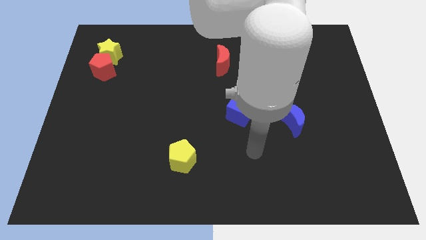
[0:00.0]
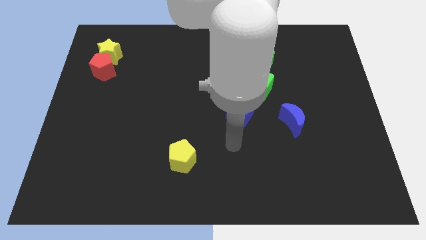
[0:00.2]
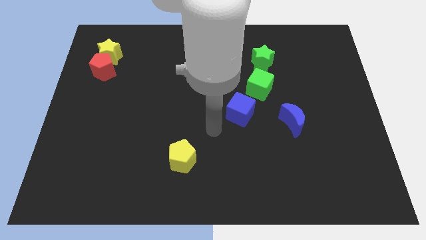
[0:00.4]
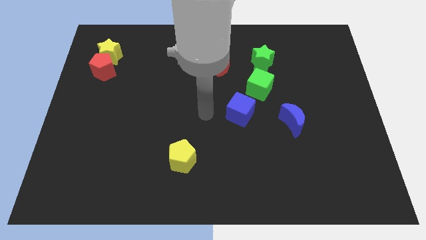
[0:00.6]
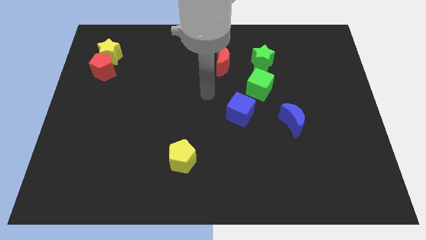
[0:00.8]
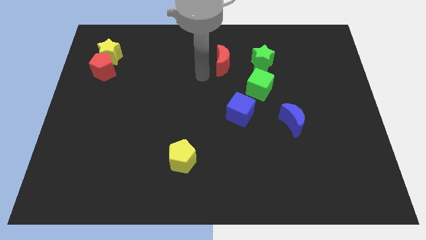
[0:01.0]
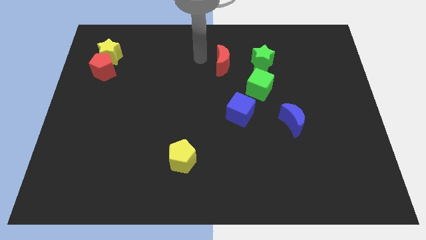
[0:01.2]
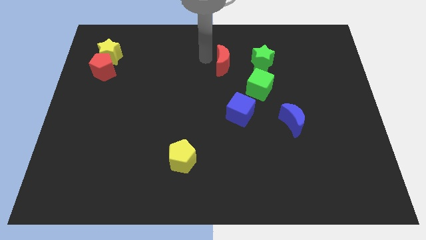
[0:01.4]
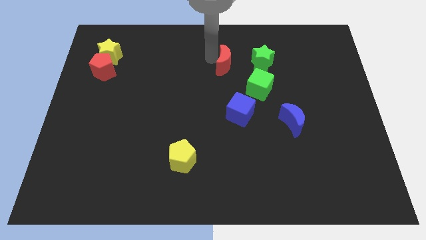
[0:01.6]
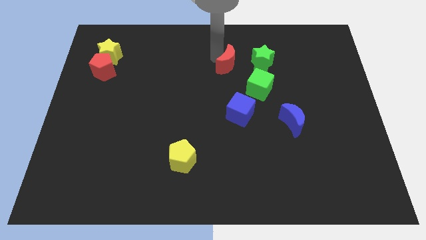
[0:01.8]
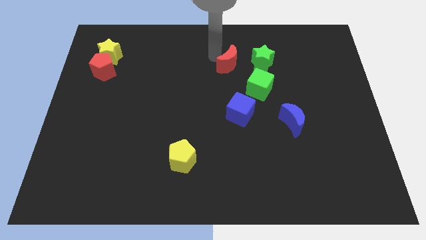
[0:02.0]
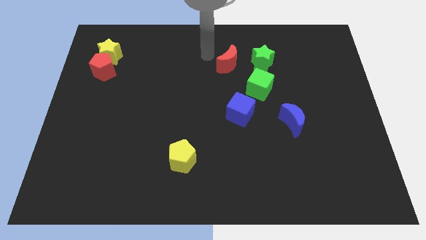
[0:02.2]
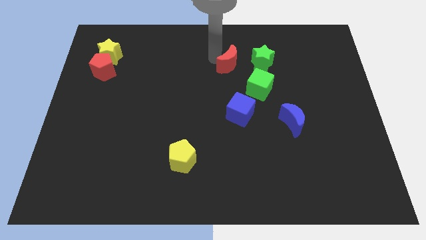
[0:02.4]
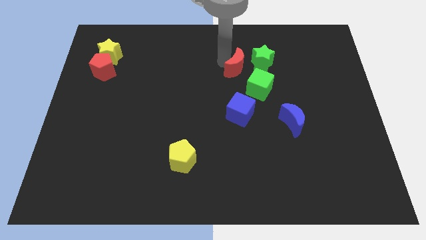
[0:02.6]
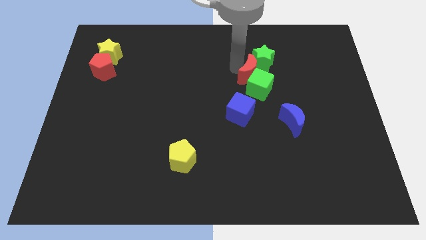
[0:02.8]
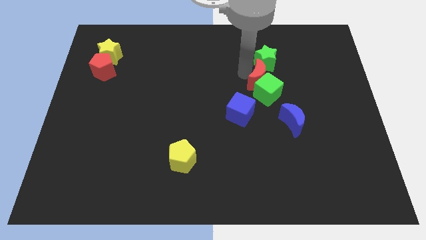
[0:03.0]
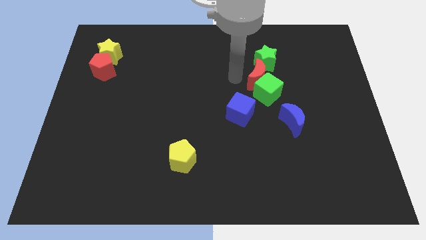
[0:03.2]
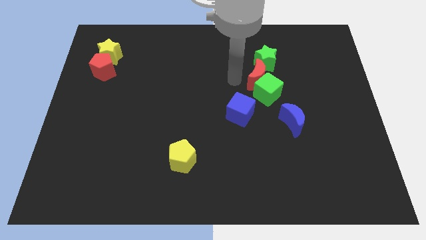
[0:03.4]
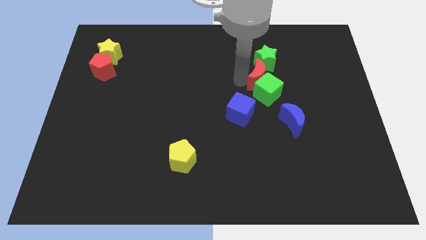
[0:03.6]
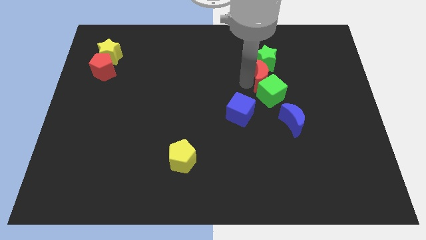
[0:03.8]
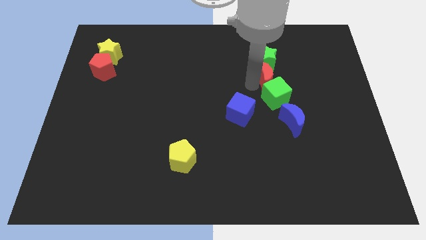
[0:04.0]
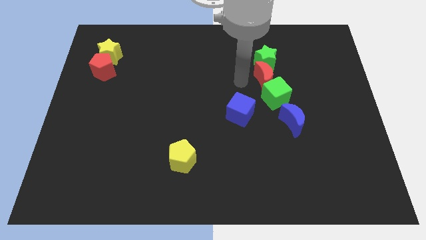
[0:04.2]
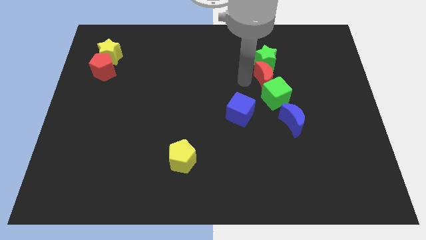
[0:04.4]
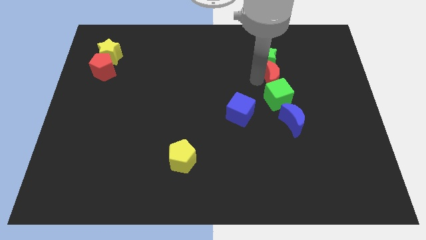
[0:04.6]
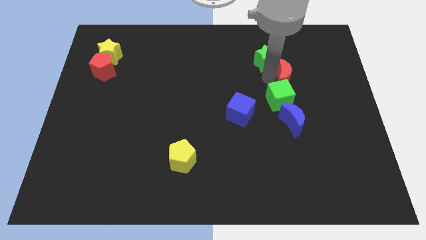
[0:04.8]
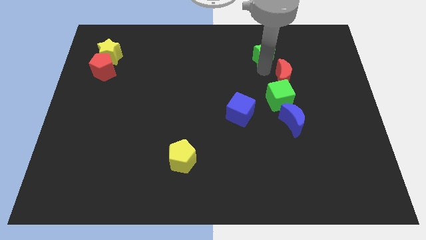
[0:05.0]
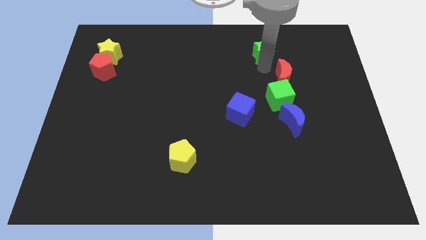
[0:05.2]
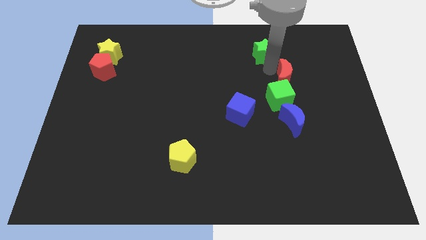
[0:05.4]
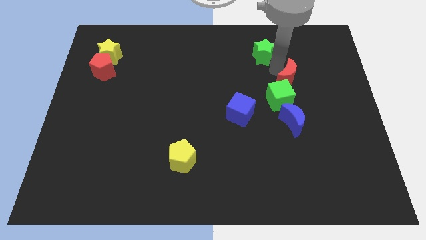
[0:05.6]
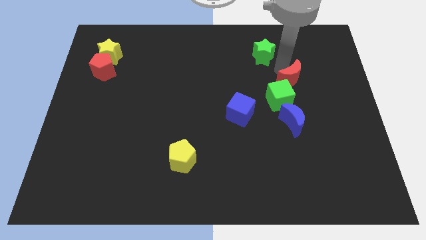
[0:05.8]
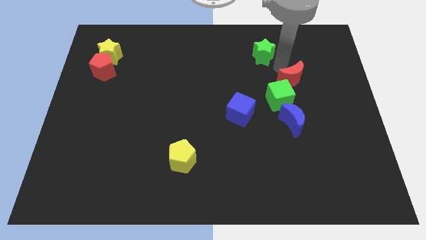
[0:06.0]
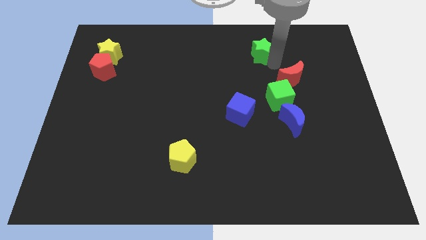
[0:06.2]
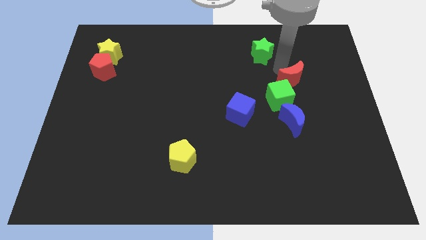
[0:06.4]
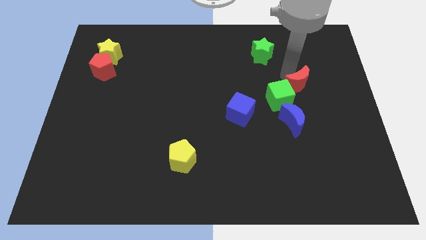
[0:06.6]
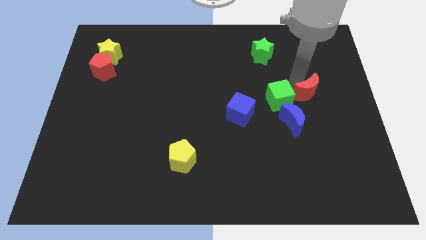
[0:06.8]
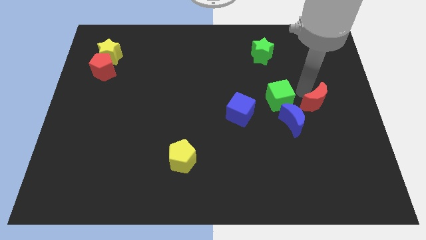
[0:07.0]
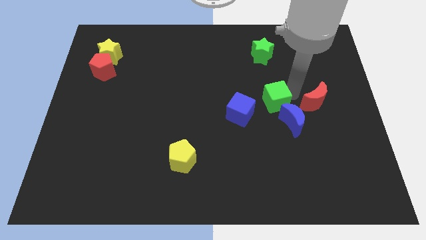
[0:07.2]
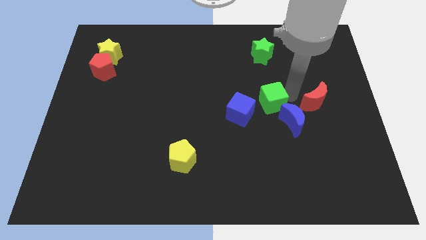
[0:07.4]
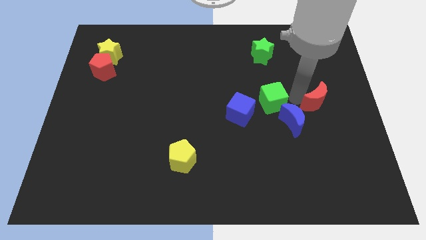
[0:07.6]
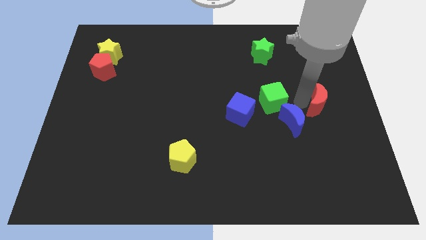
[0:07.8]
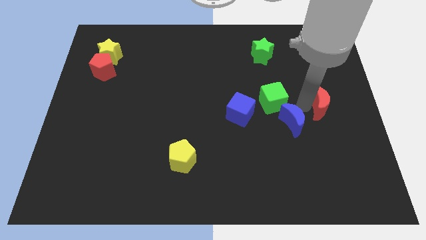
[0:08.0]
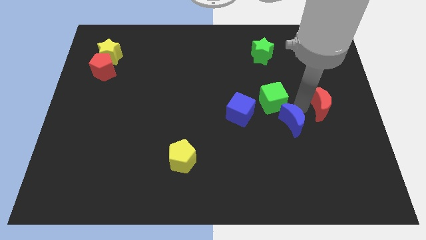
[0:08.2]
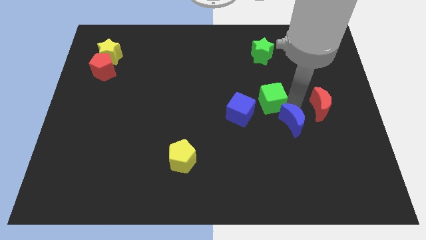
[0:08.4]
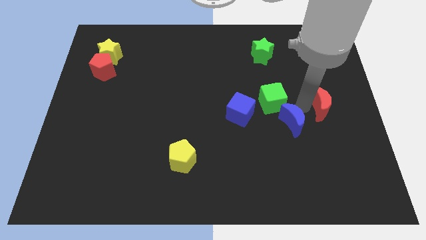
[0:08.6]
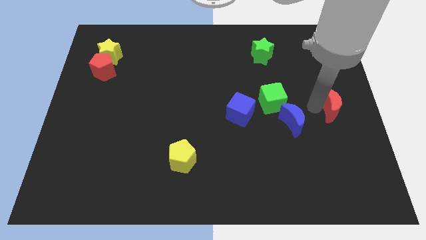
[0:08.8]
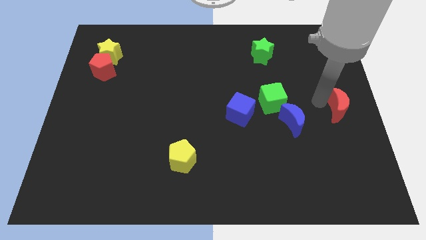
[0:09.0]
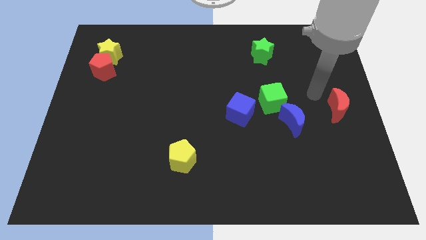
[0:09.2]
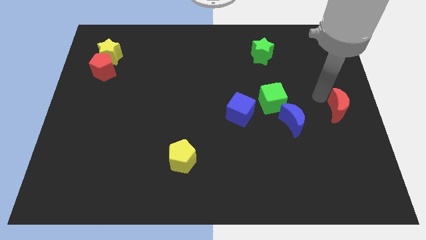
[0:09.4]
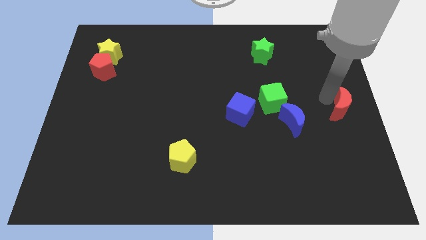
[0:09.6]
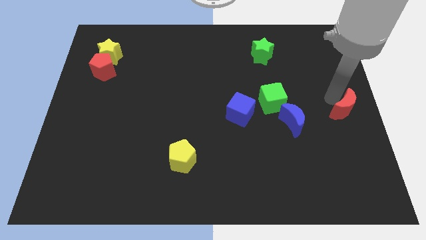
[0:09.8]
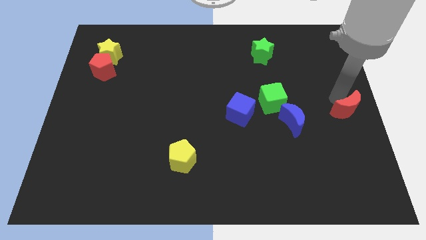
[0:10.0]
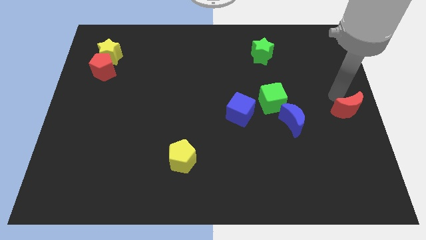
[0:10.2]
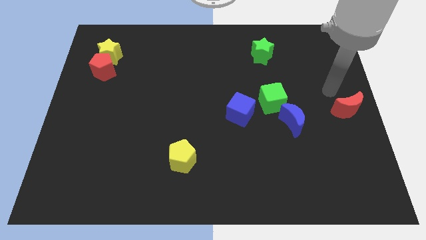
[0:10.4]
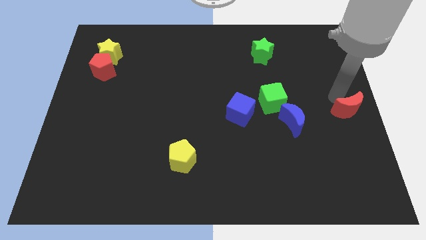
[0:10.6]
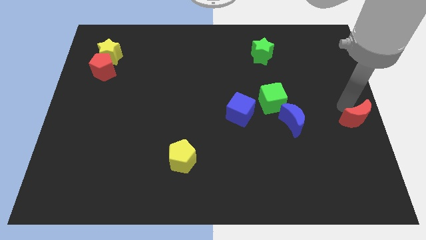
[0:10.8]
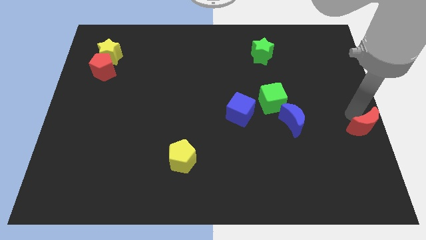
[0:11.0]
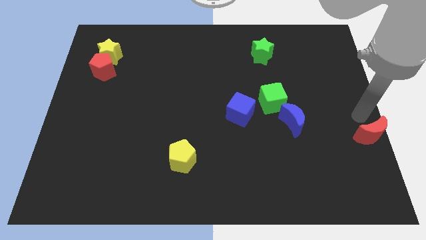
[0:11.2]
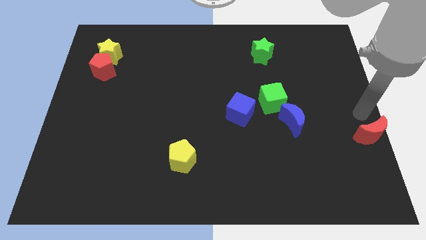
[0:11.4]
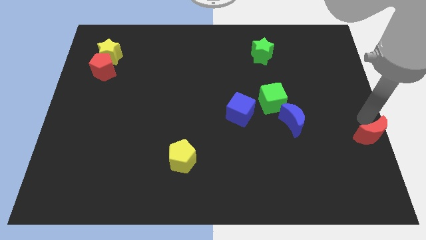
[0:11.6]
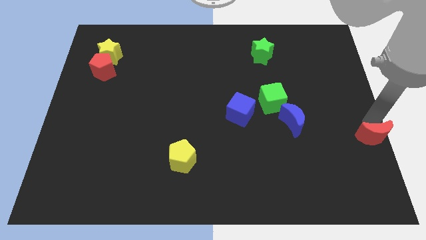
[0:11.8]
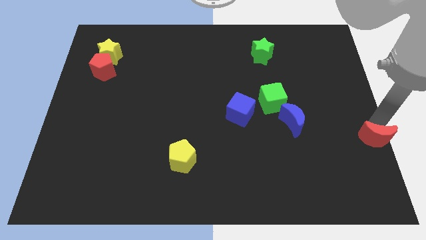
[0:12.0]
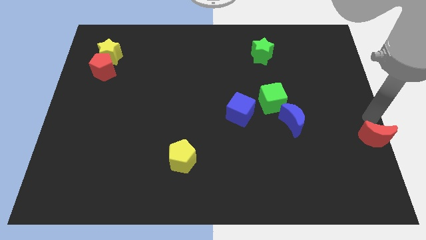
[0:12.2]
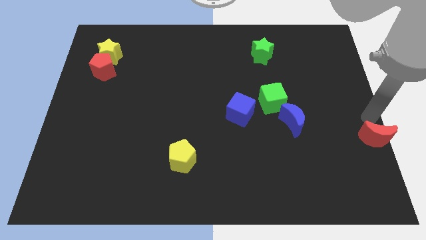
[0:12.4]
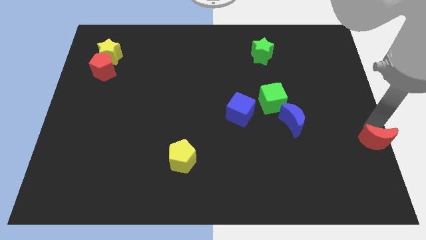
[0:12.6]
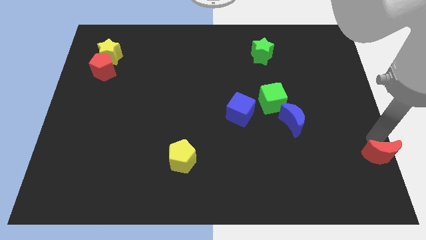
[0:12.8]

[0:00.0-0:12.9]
put the red moon to the bottom right corner

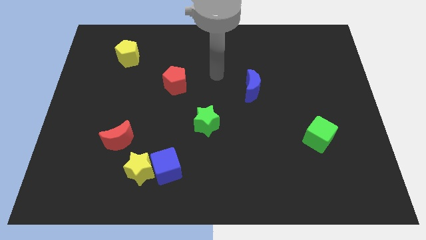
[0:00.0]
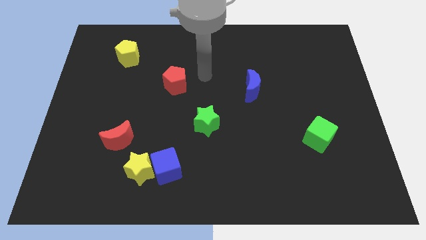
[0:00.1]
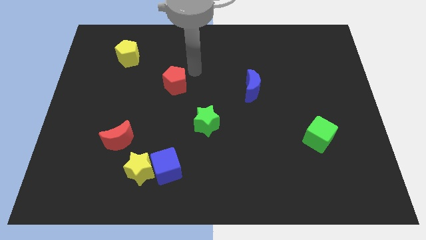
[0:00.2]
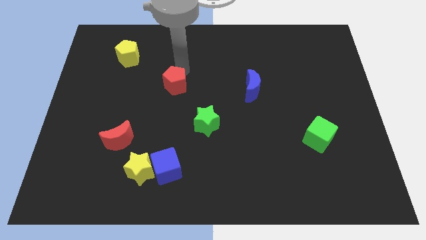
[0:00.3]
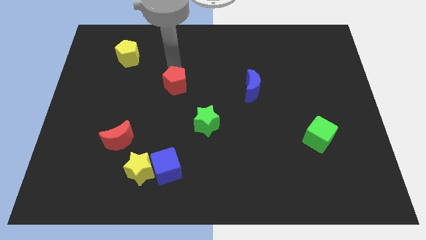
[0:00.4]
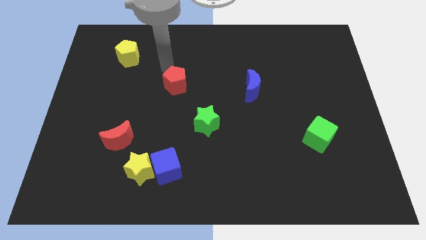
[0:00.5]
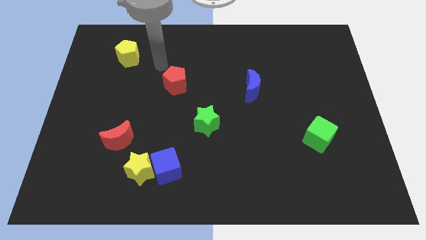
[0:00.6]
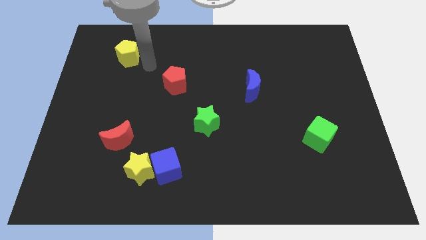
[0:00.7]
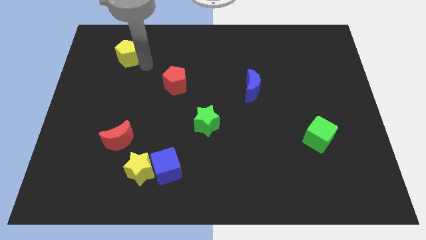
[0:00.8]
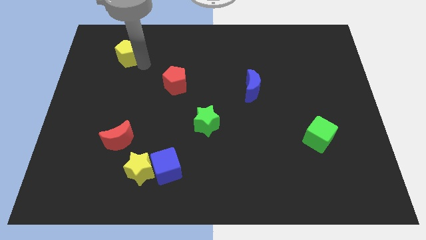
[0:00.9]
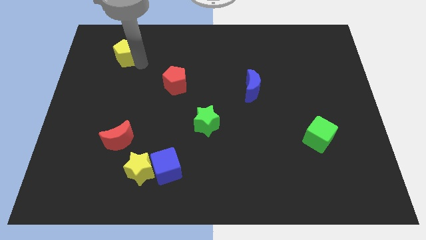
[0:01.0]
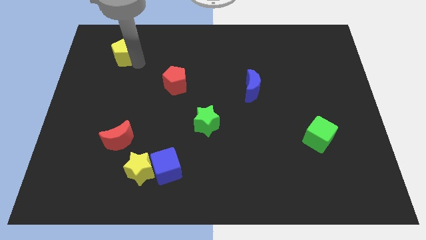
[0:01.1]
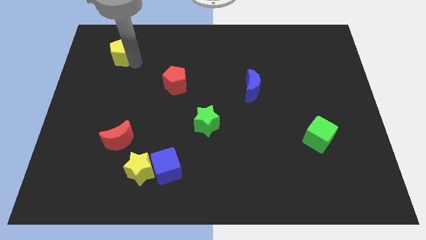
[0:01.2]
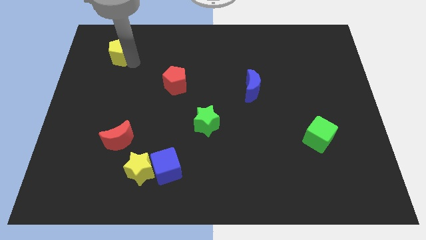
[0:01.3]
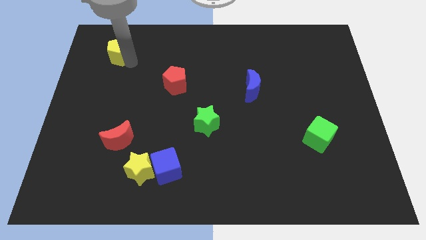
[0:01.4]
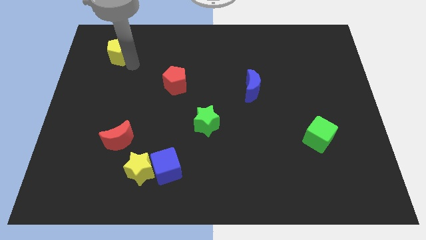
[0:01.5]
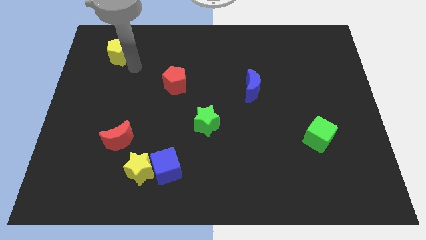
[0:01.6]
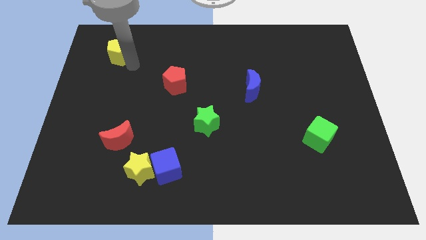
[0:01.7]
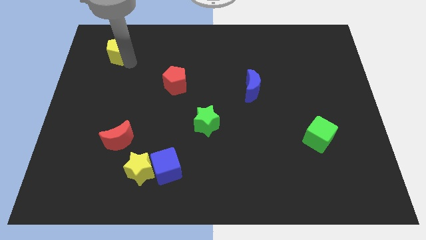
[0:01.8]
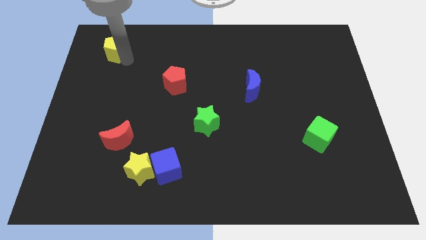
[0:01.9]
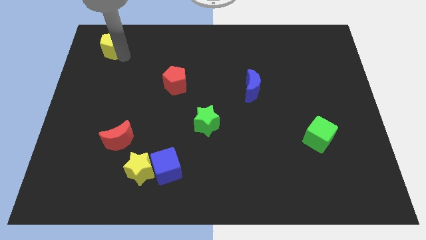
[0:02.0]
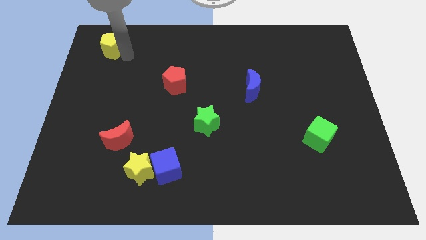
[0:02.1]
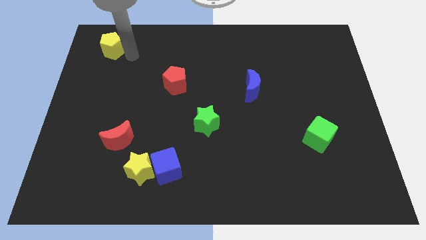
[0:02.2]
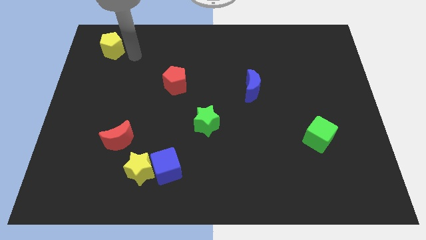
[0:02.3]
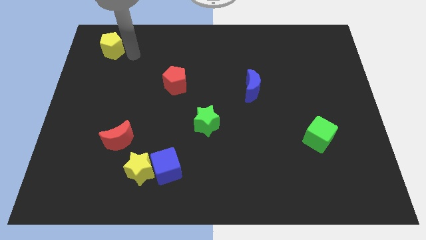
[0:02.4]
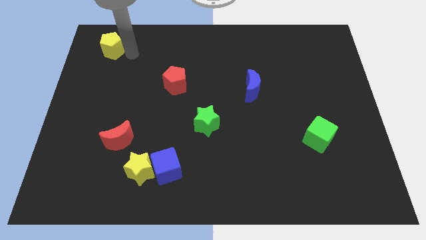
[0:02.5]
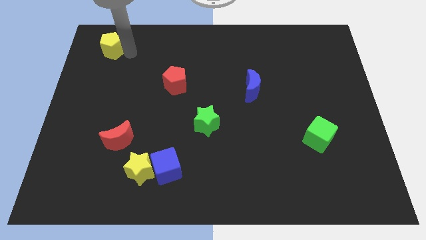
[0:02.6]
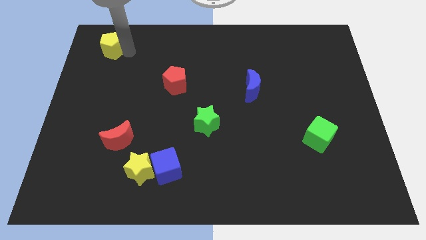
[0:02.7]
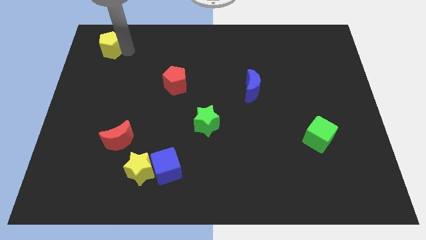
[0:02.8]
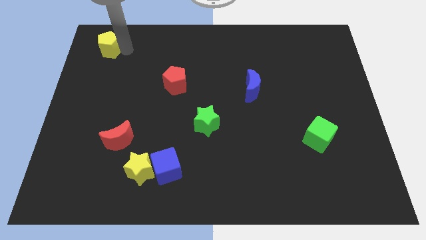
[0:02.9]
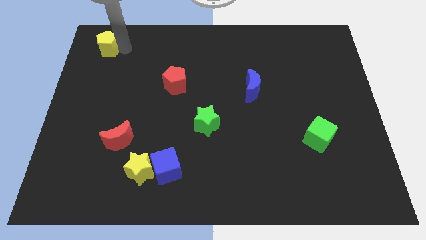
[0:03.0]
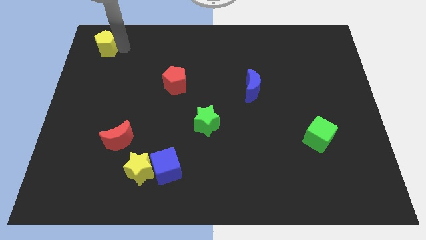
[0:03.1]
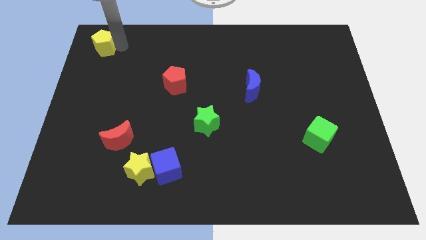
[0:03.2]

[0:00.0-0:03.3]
put the yellow pentagon to the upper left corner
